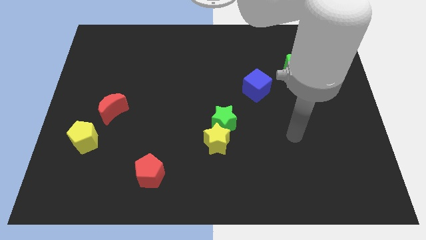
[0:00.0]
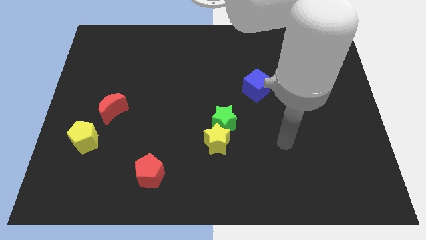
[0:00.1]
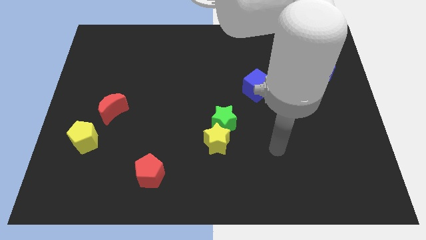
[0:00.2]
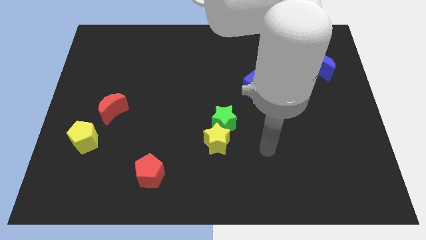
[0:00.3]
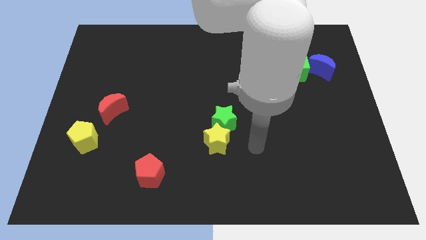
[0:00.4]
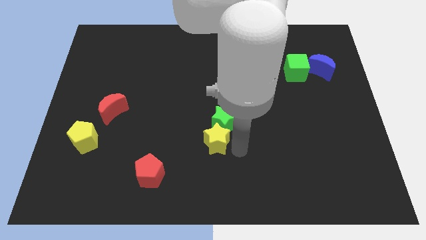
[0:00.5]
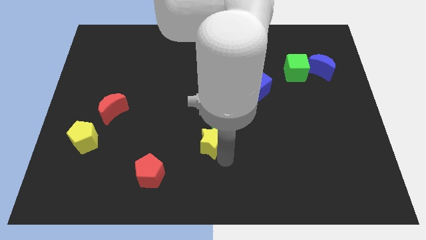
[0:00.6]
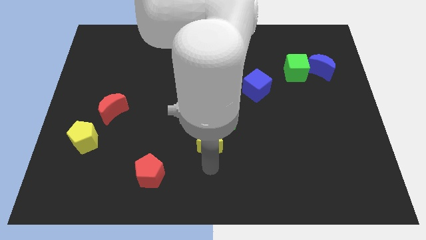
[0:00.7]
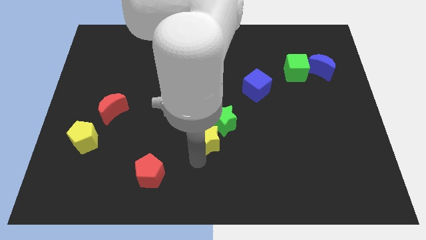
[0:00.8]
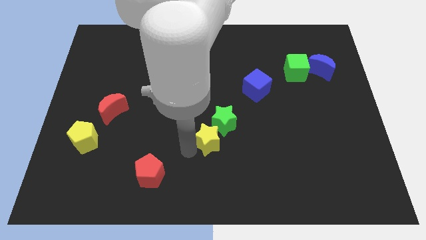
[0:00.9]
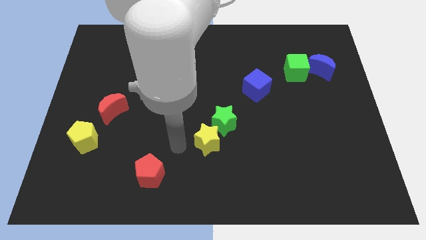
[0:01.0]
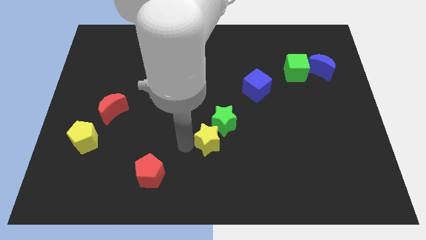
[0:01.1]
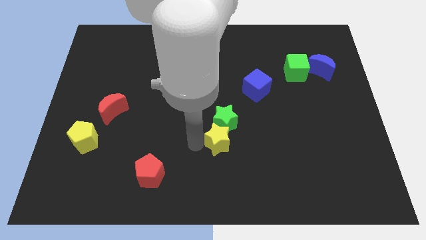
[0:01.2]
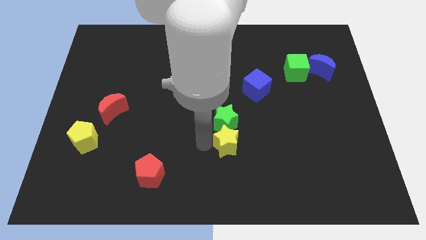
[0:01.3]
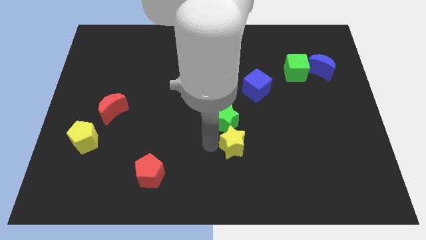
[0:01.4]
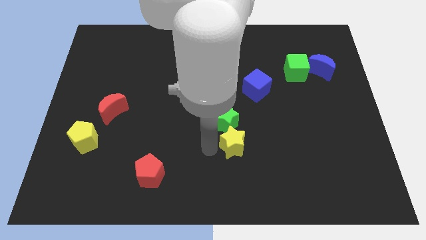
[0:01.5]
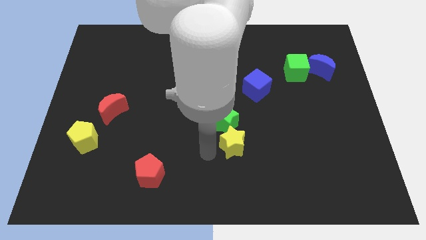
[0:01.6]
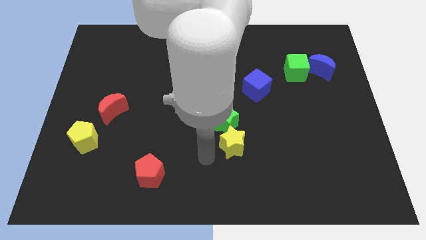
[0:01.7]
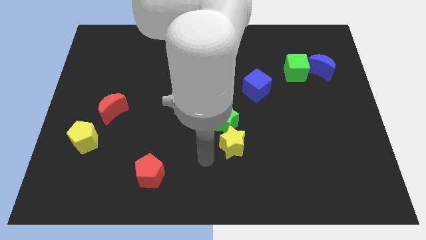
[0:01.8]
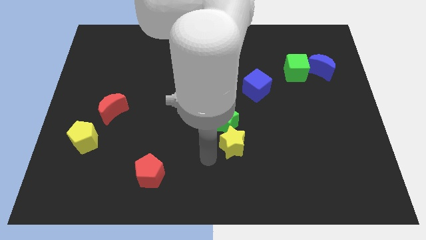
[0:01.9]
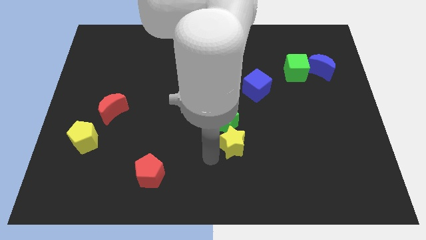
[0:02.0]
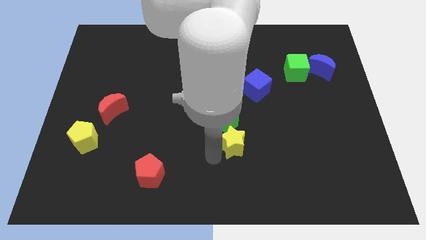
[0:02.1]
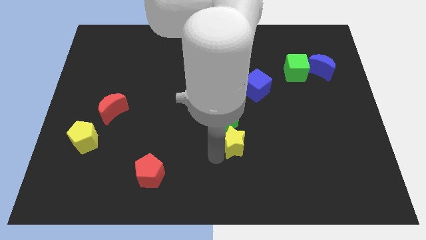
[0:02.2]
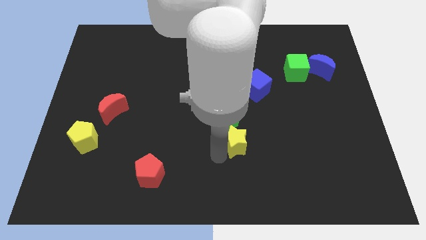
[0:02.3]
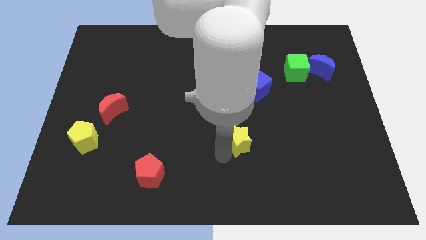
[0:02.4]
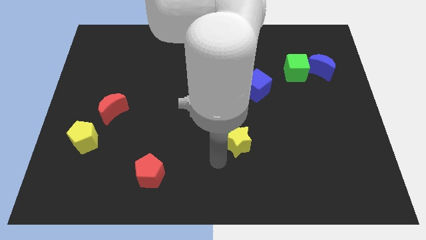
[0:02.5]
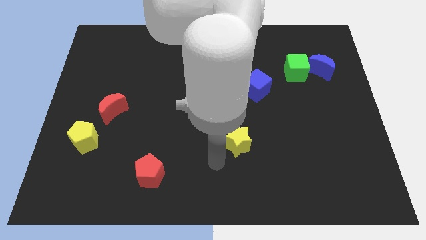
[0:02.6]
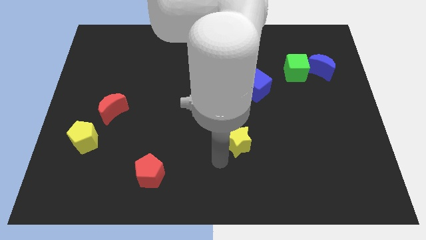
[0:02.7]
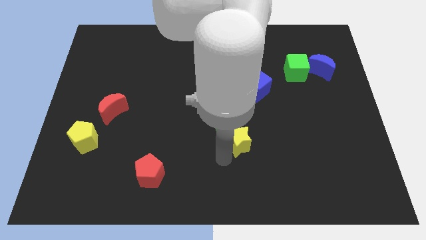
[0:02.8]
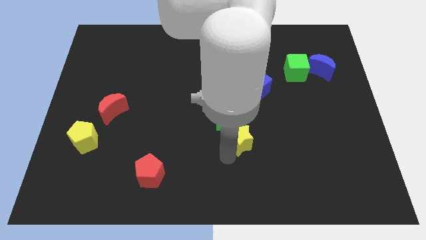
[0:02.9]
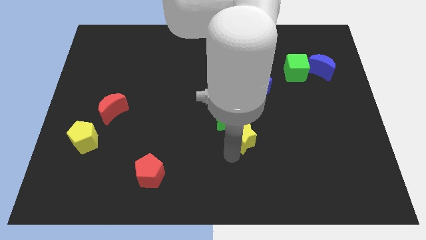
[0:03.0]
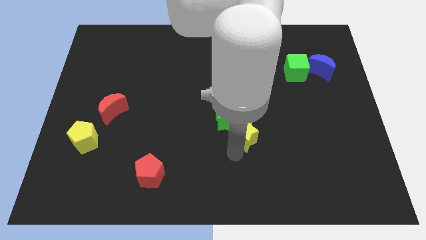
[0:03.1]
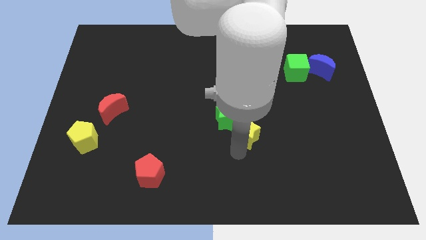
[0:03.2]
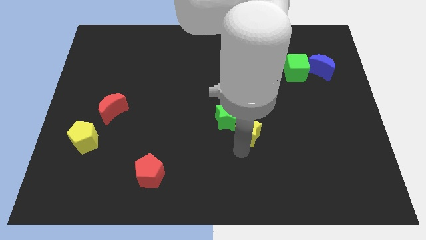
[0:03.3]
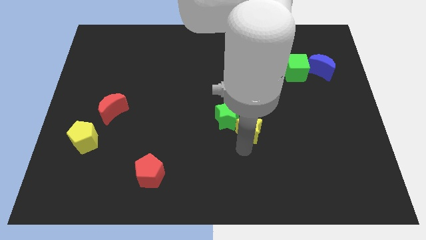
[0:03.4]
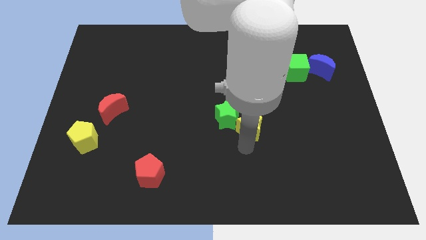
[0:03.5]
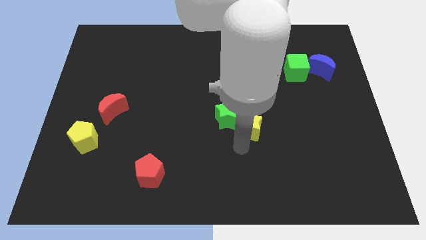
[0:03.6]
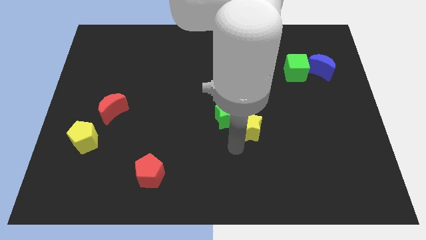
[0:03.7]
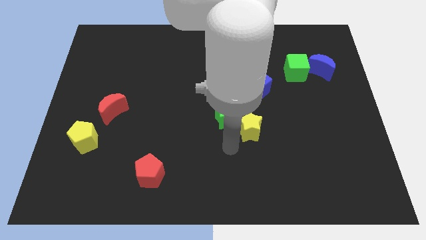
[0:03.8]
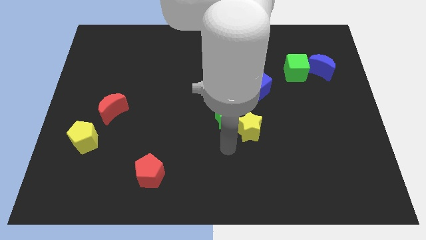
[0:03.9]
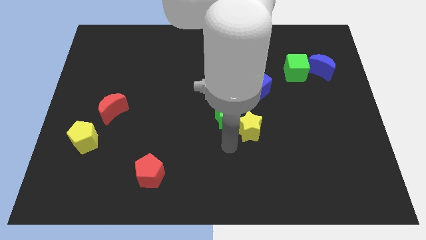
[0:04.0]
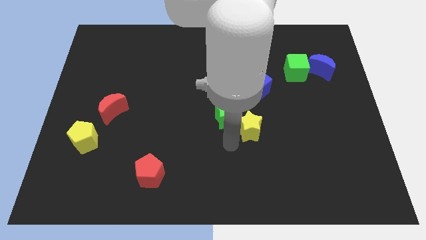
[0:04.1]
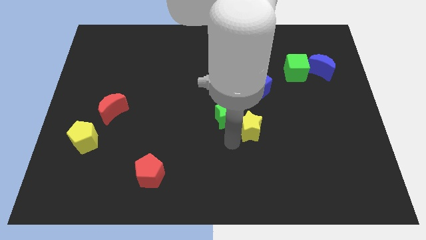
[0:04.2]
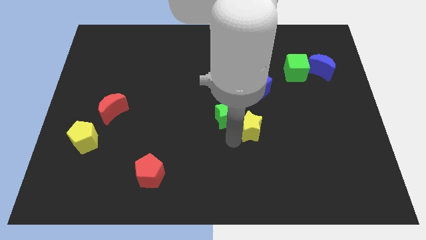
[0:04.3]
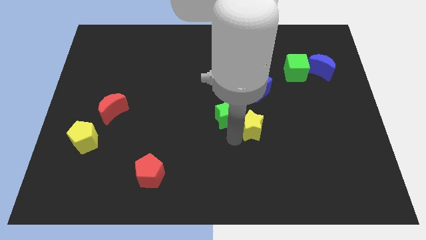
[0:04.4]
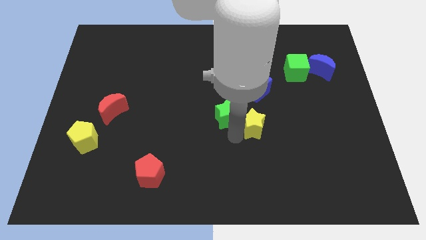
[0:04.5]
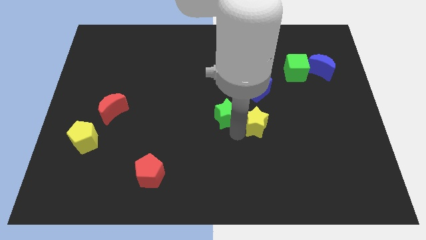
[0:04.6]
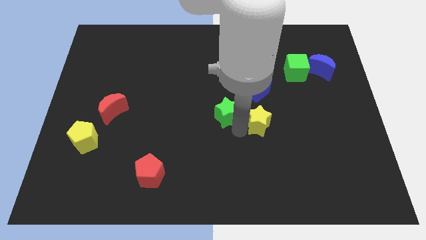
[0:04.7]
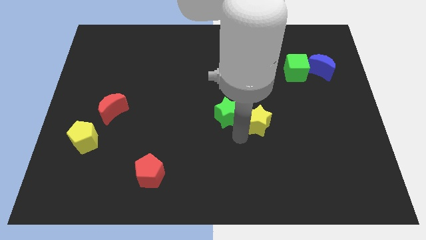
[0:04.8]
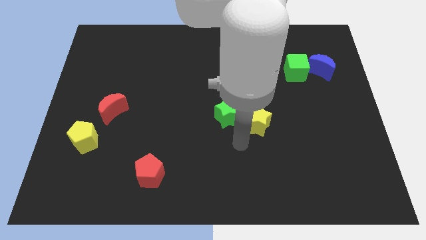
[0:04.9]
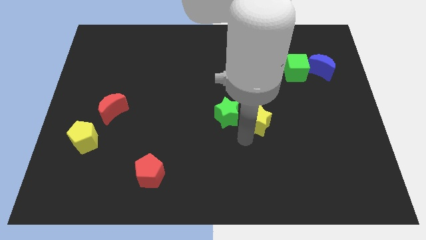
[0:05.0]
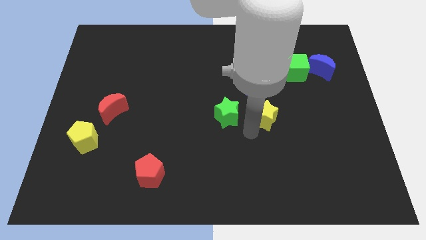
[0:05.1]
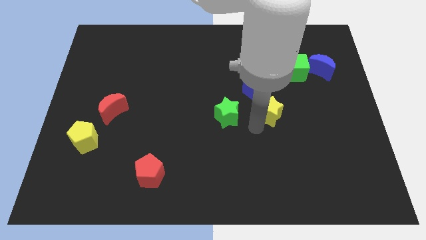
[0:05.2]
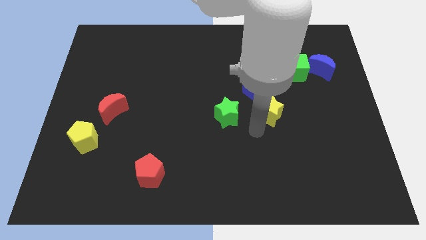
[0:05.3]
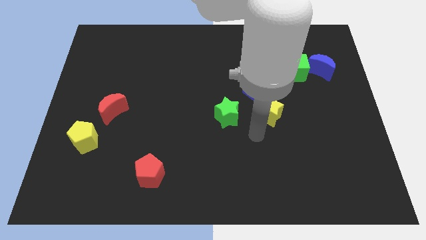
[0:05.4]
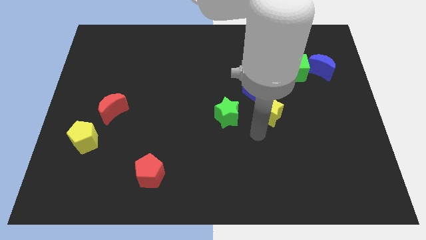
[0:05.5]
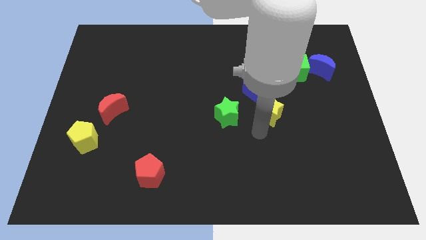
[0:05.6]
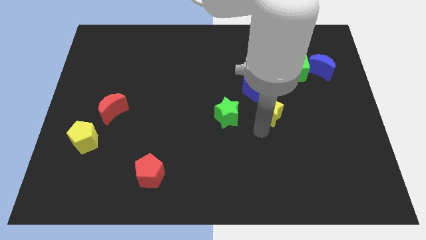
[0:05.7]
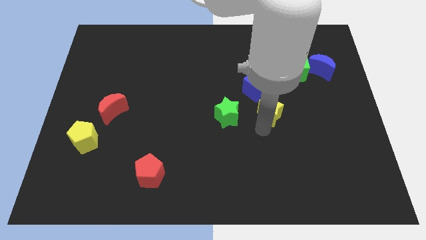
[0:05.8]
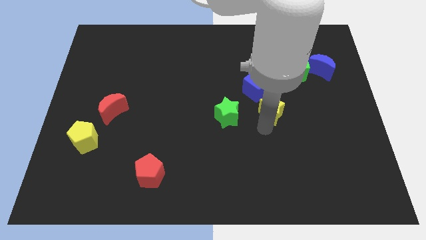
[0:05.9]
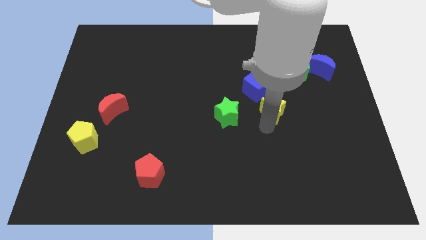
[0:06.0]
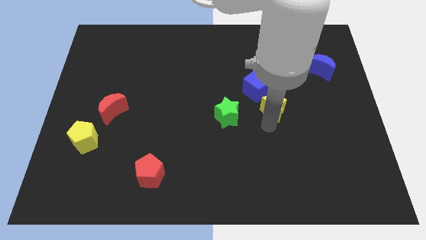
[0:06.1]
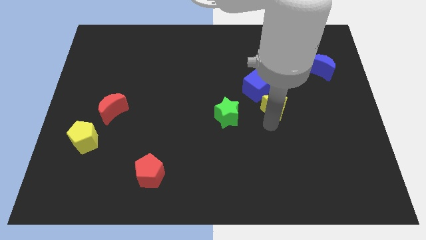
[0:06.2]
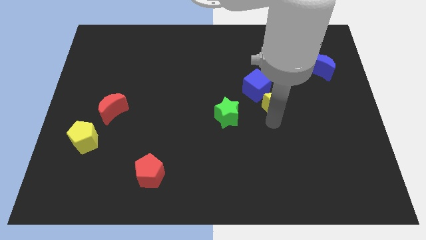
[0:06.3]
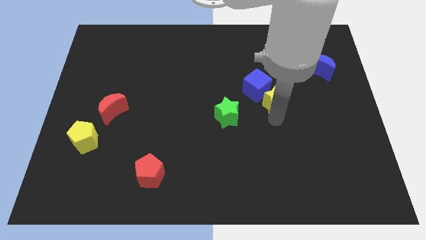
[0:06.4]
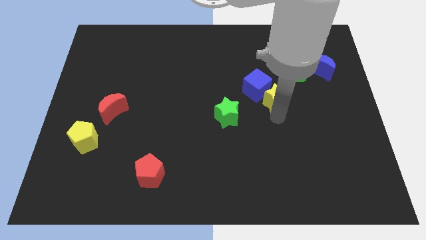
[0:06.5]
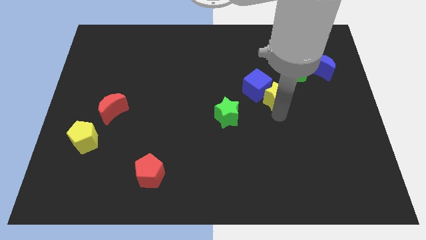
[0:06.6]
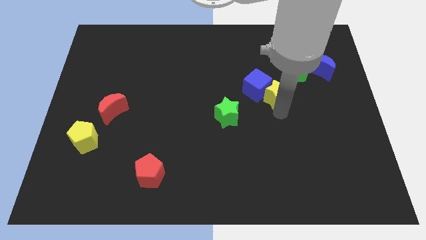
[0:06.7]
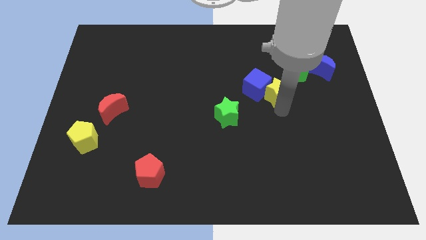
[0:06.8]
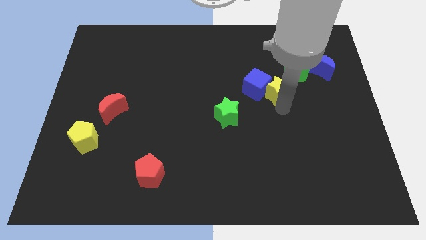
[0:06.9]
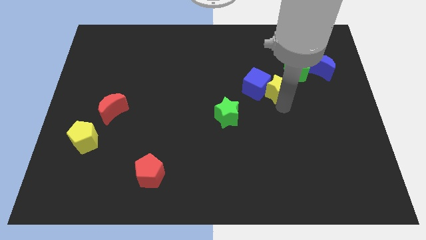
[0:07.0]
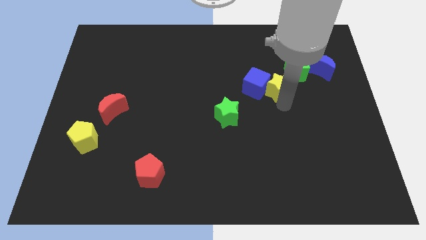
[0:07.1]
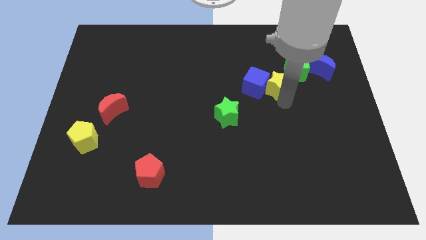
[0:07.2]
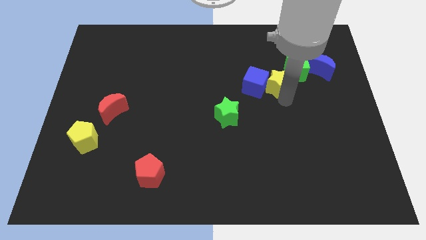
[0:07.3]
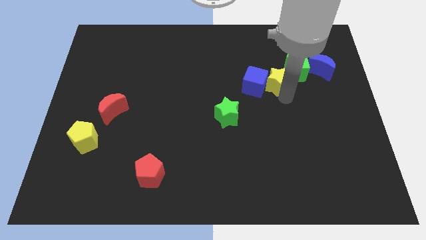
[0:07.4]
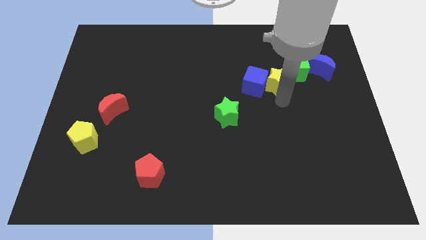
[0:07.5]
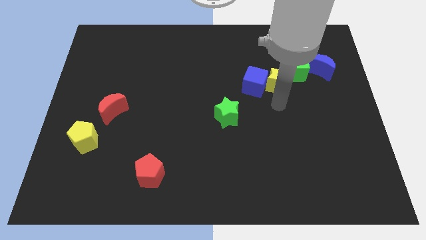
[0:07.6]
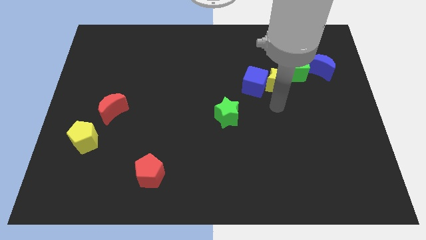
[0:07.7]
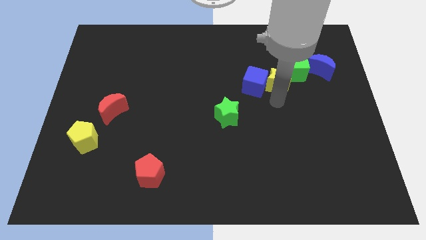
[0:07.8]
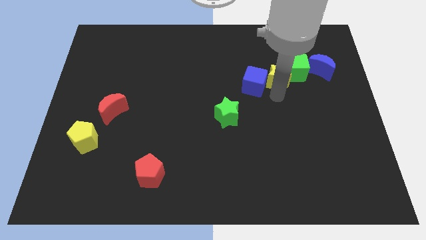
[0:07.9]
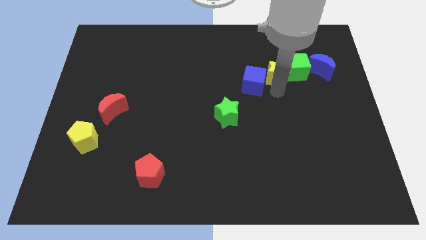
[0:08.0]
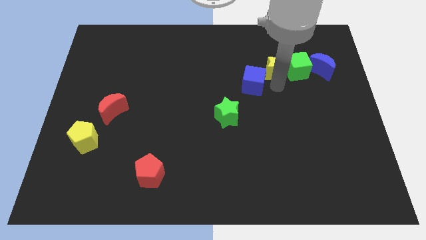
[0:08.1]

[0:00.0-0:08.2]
put the yellow star diagonally up and to the left of the green cube
